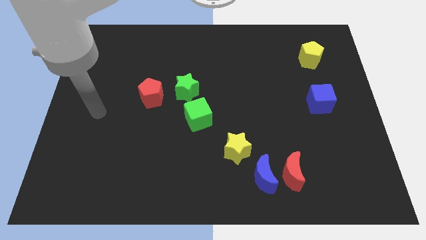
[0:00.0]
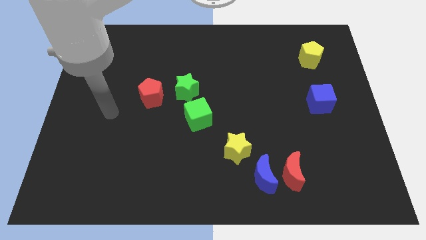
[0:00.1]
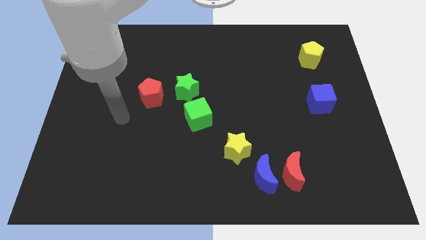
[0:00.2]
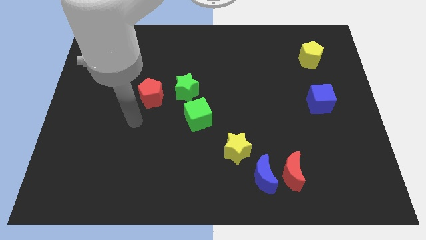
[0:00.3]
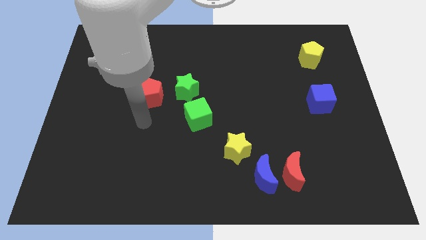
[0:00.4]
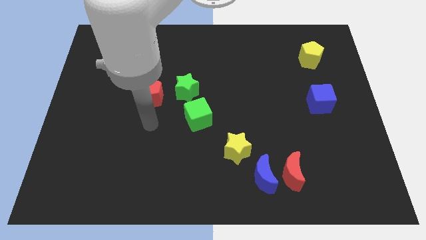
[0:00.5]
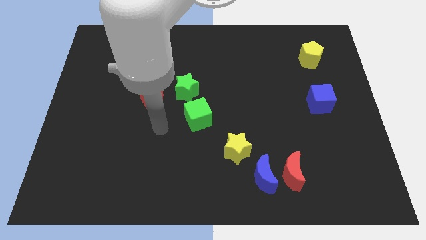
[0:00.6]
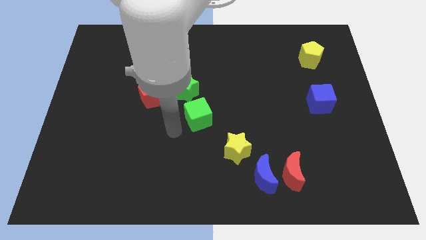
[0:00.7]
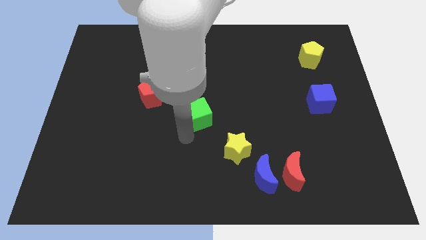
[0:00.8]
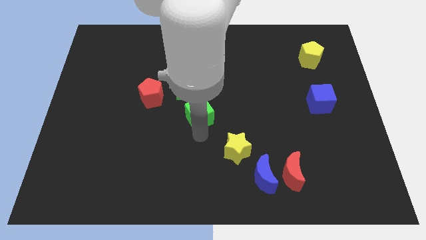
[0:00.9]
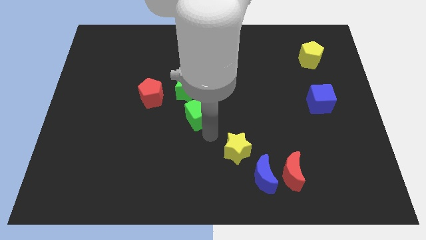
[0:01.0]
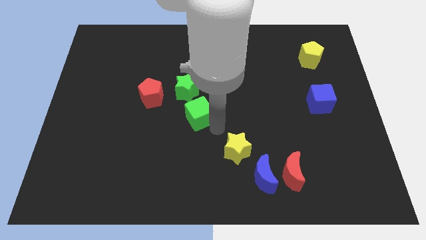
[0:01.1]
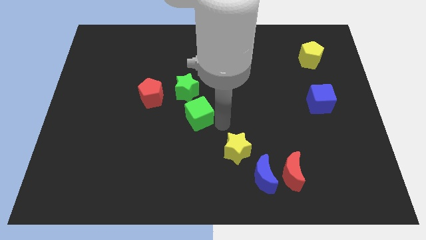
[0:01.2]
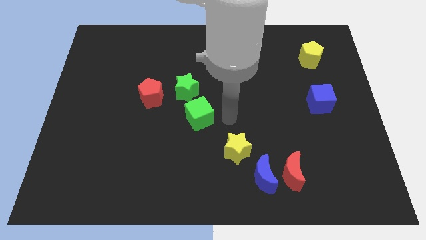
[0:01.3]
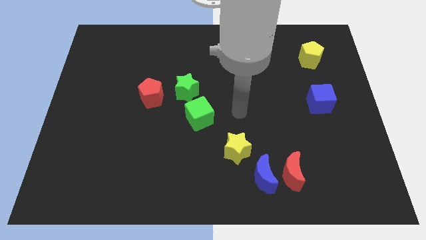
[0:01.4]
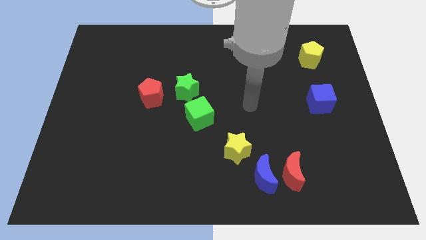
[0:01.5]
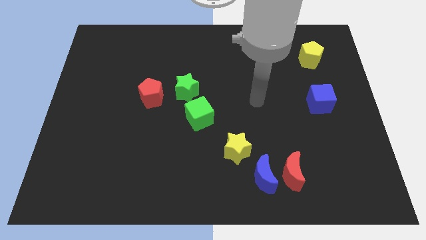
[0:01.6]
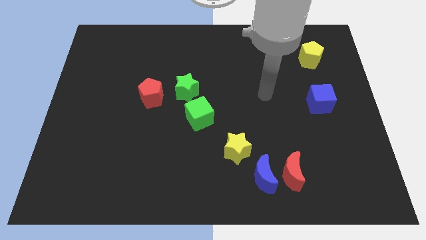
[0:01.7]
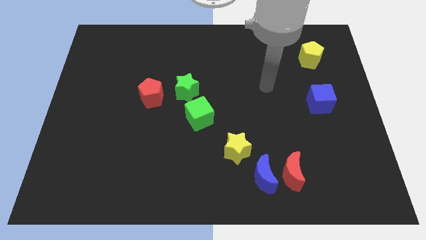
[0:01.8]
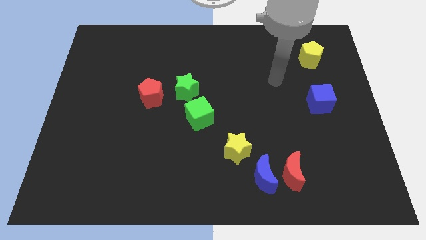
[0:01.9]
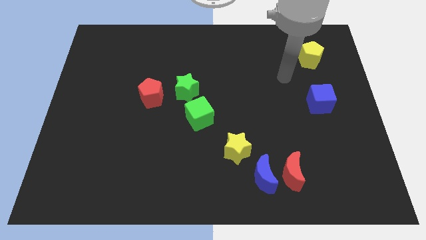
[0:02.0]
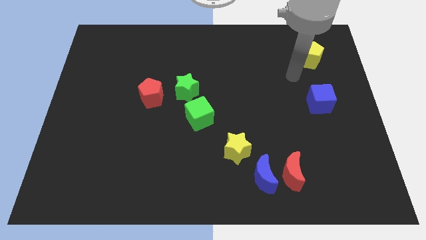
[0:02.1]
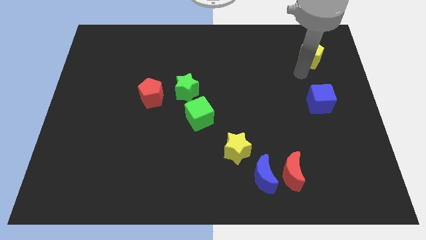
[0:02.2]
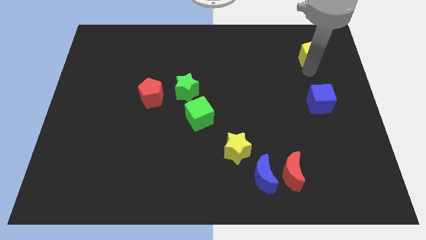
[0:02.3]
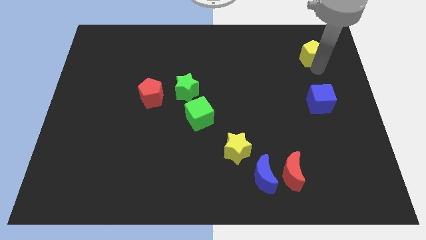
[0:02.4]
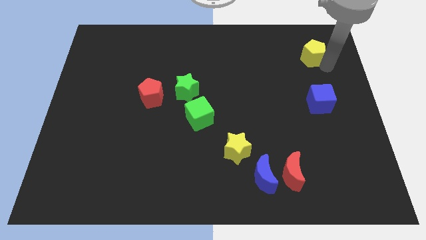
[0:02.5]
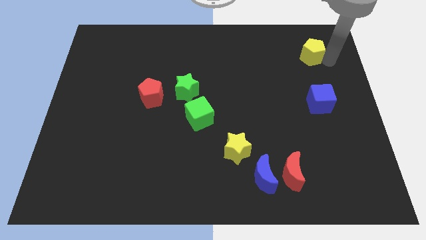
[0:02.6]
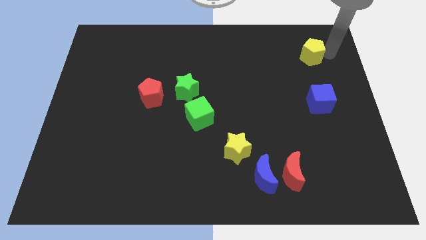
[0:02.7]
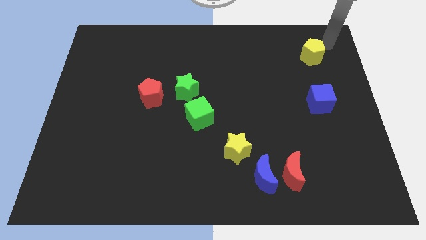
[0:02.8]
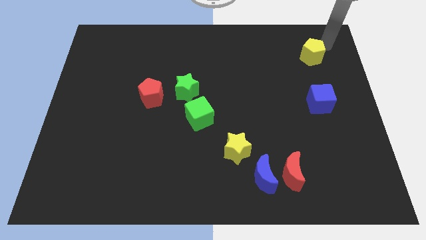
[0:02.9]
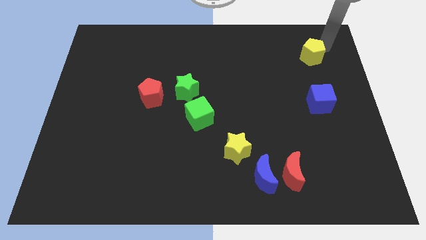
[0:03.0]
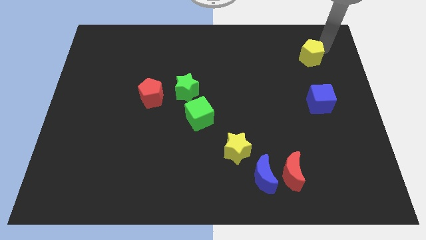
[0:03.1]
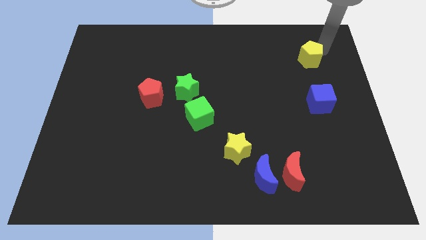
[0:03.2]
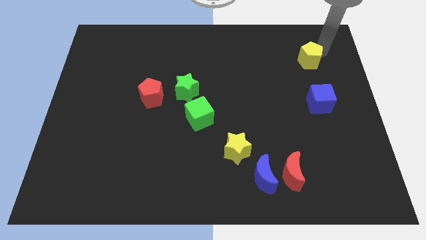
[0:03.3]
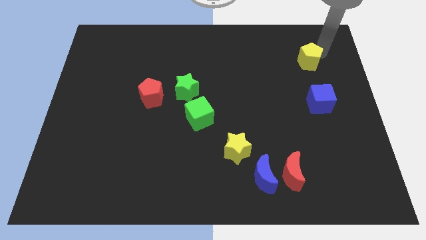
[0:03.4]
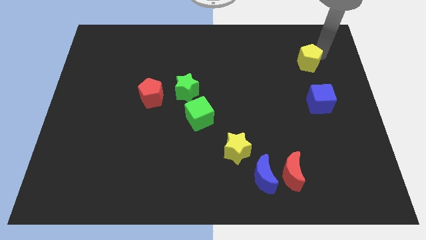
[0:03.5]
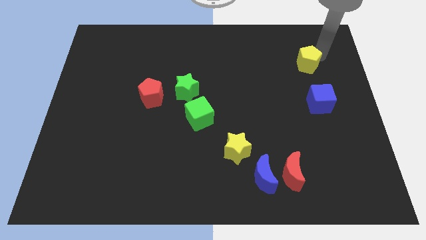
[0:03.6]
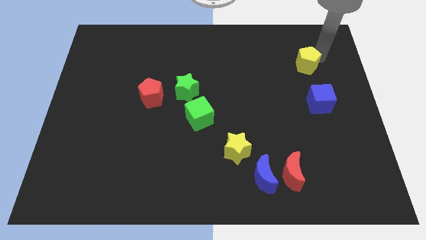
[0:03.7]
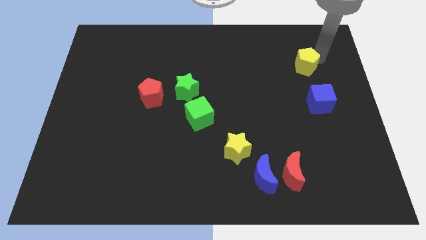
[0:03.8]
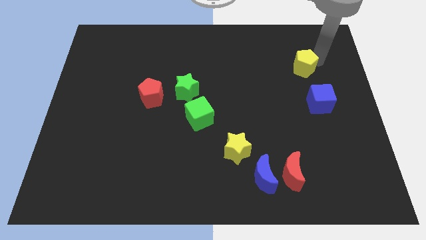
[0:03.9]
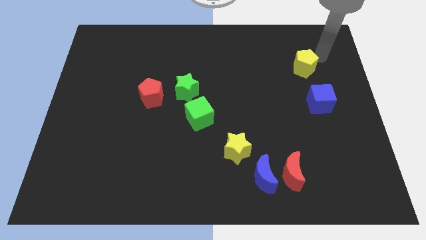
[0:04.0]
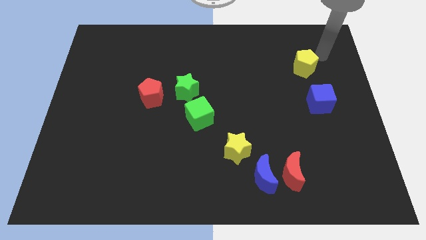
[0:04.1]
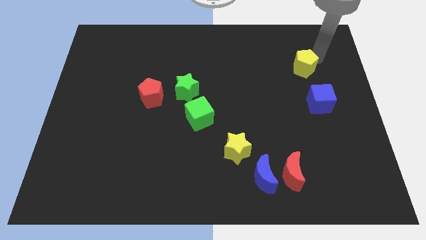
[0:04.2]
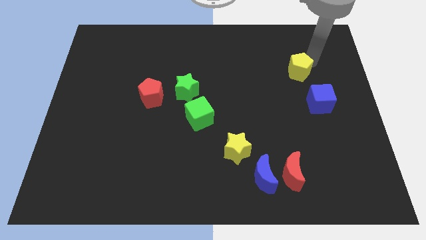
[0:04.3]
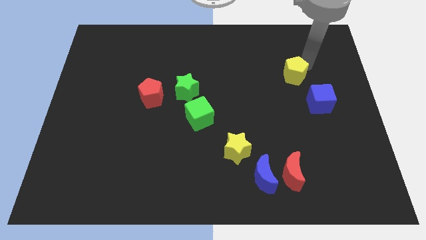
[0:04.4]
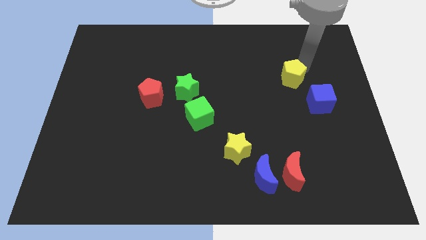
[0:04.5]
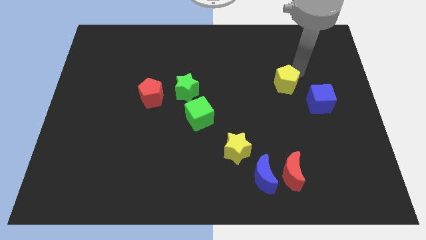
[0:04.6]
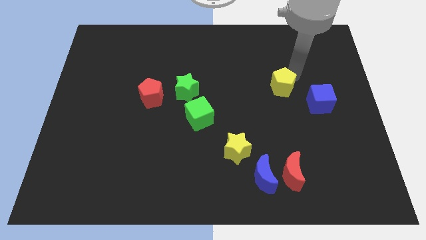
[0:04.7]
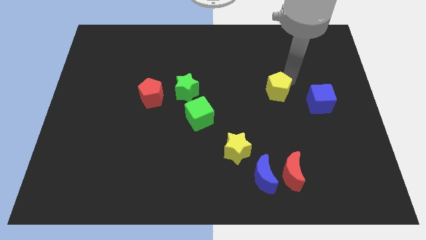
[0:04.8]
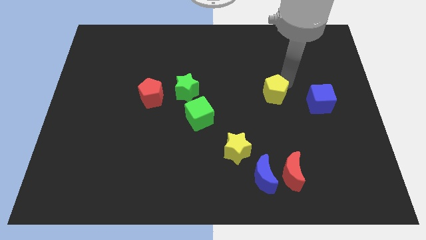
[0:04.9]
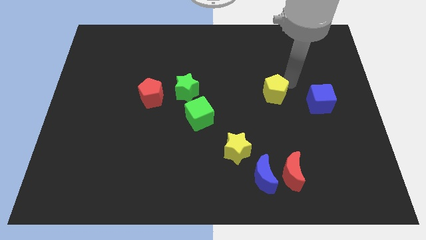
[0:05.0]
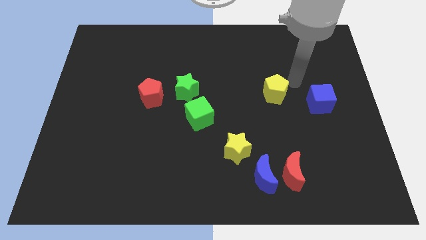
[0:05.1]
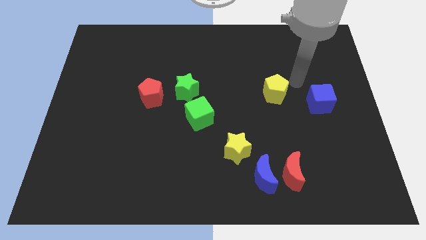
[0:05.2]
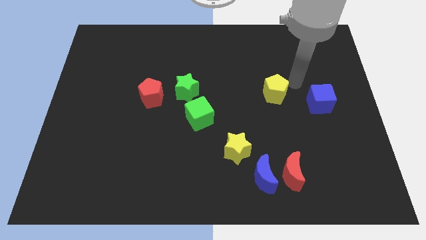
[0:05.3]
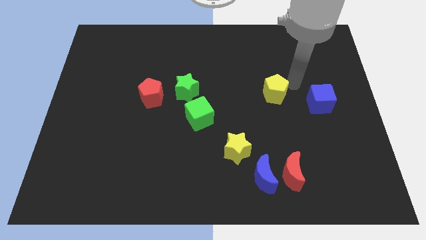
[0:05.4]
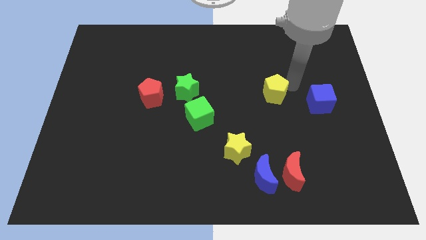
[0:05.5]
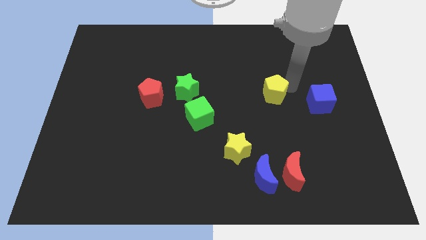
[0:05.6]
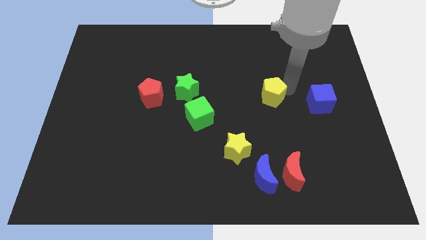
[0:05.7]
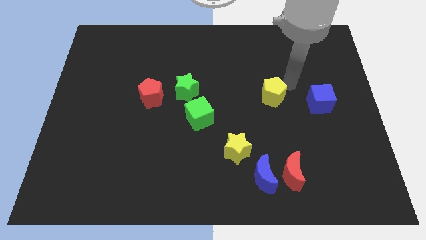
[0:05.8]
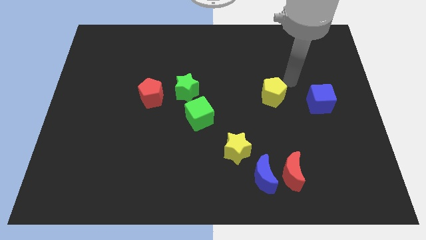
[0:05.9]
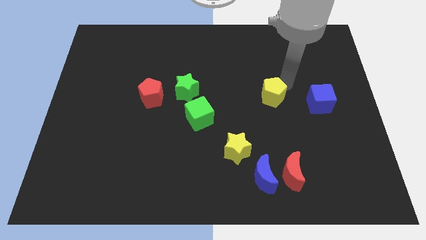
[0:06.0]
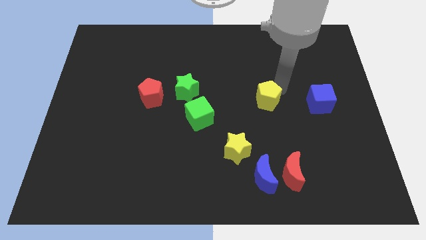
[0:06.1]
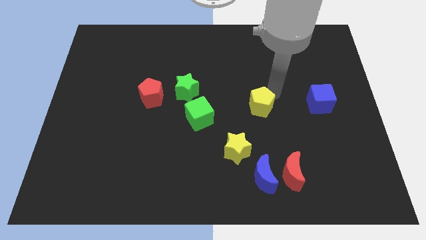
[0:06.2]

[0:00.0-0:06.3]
move the yellow pentagon right of the green cube
